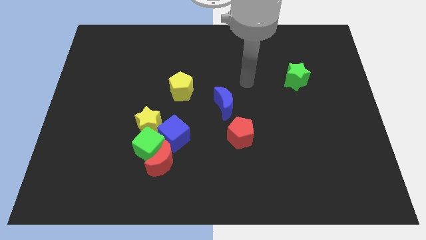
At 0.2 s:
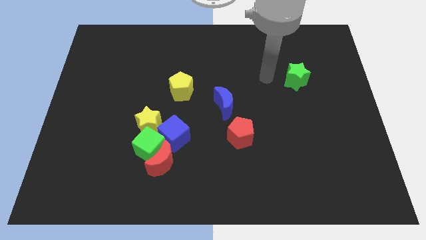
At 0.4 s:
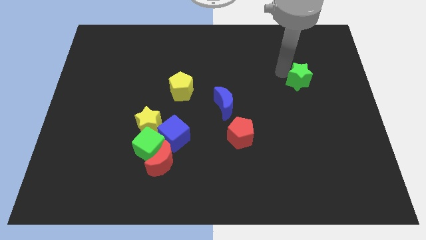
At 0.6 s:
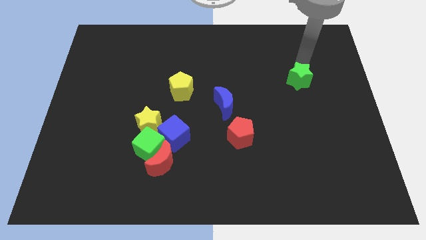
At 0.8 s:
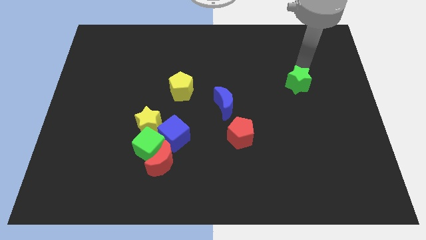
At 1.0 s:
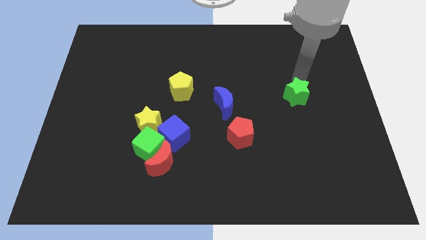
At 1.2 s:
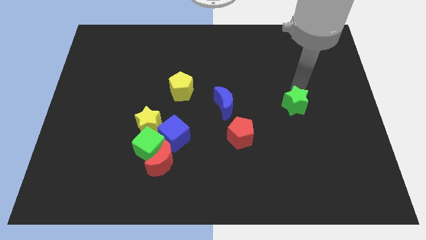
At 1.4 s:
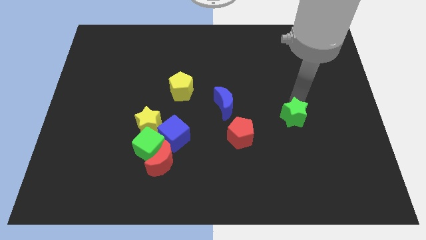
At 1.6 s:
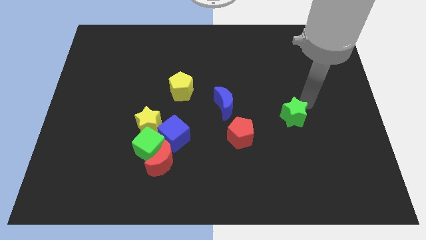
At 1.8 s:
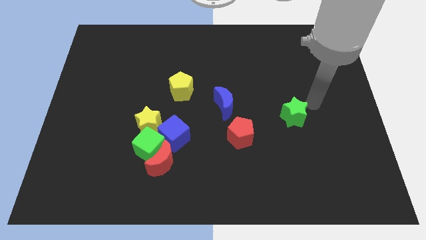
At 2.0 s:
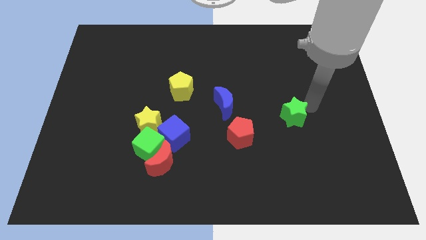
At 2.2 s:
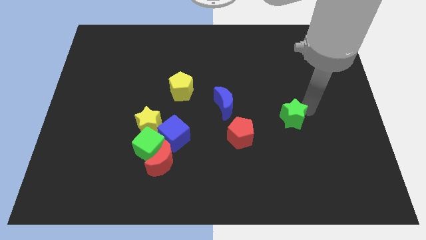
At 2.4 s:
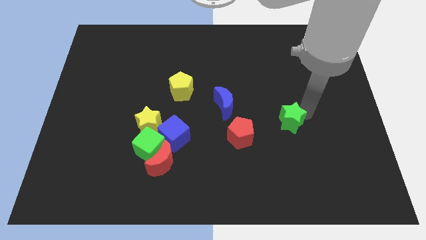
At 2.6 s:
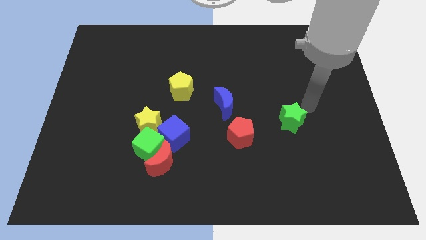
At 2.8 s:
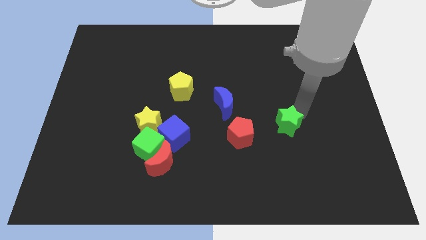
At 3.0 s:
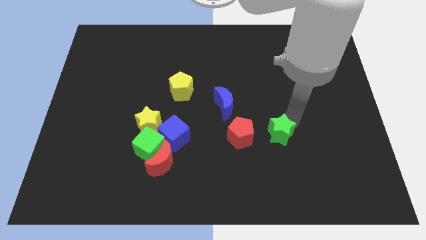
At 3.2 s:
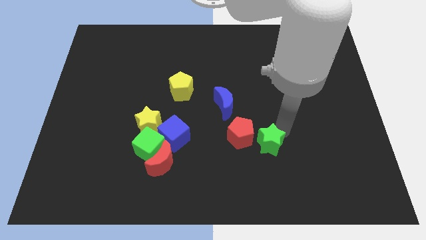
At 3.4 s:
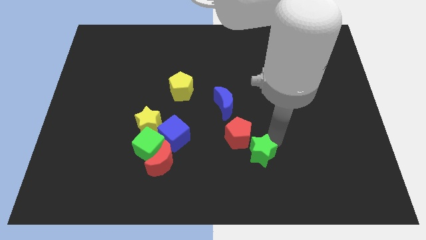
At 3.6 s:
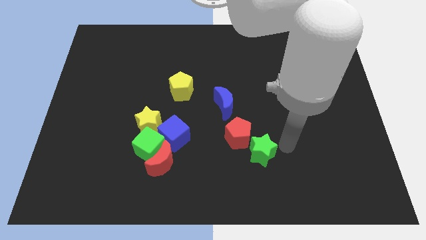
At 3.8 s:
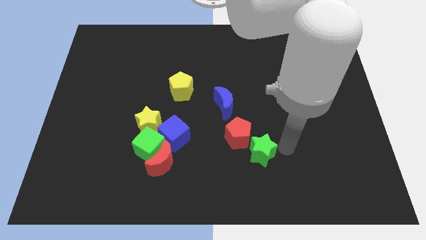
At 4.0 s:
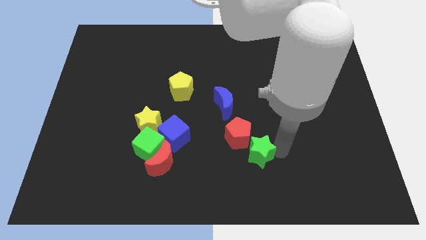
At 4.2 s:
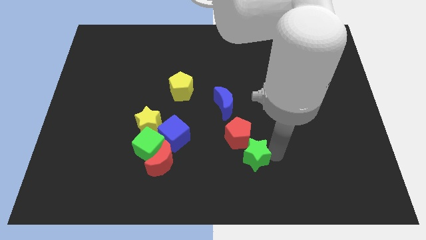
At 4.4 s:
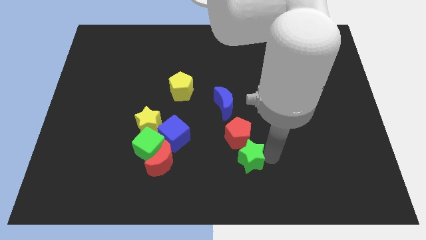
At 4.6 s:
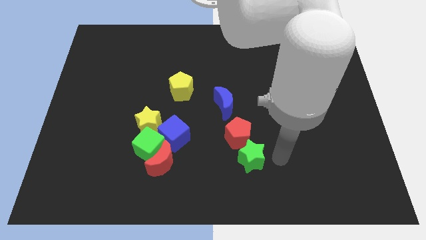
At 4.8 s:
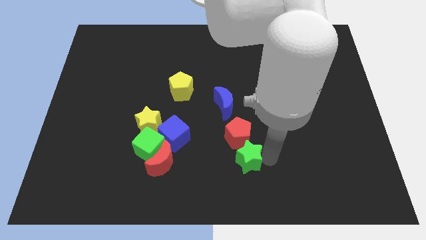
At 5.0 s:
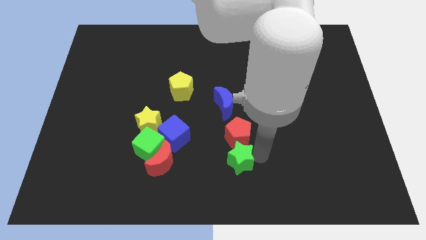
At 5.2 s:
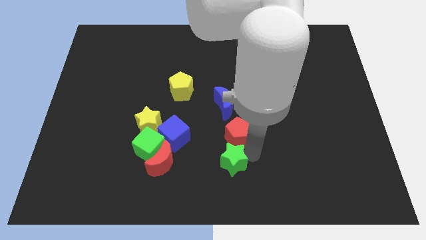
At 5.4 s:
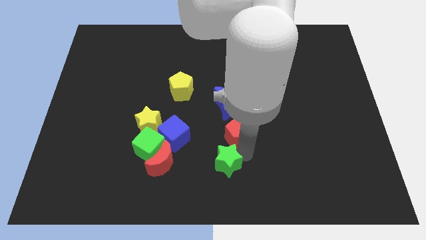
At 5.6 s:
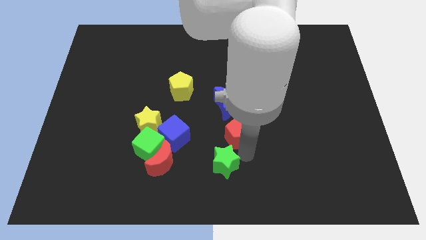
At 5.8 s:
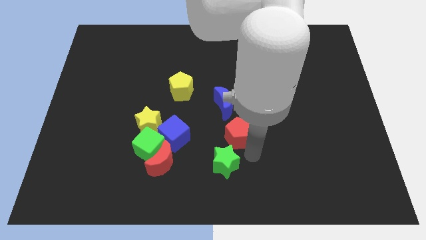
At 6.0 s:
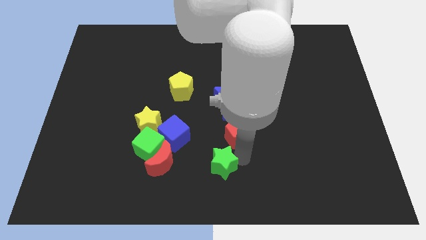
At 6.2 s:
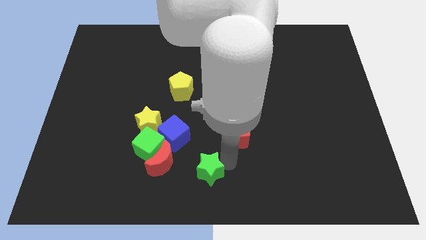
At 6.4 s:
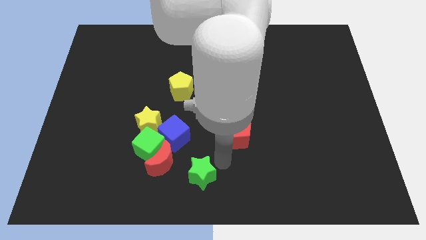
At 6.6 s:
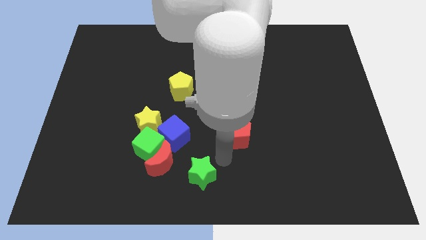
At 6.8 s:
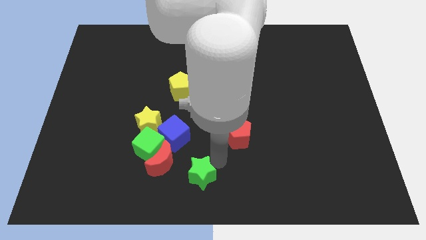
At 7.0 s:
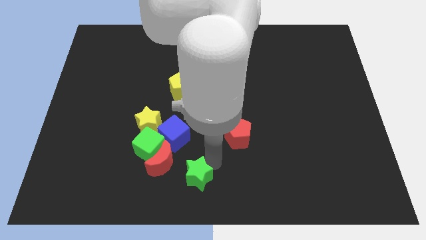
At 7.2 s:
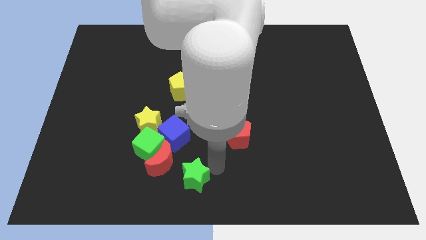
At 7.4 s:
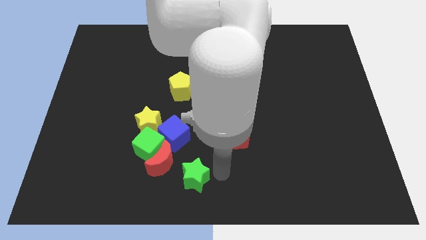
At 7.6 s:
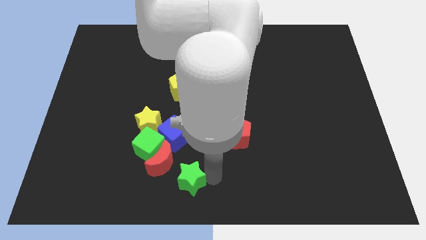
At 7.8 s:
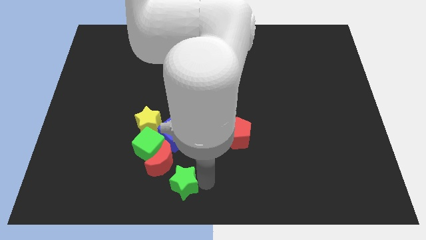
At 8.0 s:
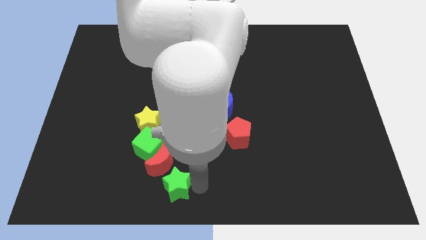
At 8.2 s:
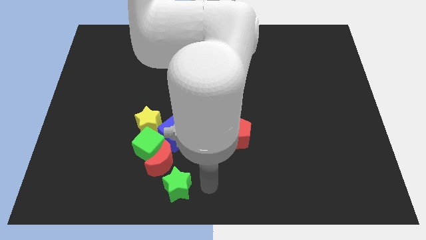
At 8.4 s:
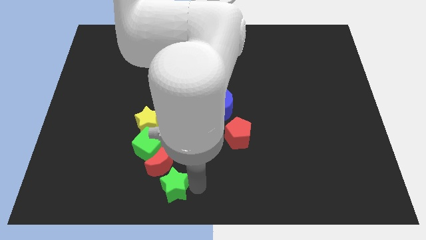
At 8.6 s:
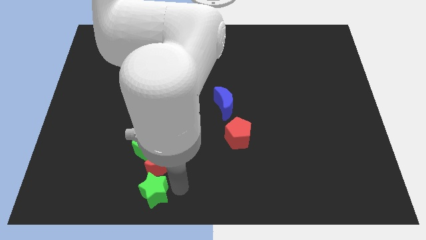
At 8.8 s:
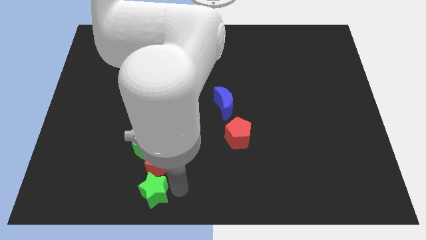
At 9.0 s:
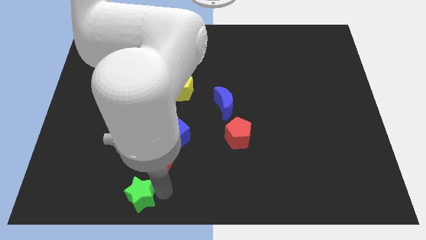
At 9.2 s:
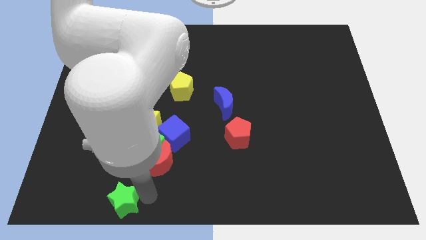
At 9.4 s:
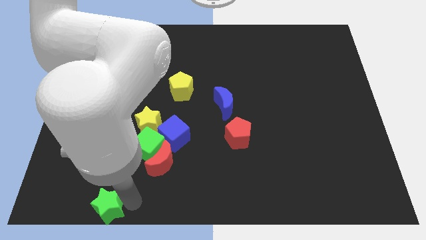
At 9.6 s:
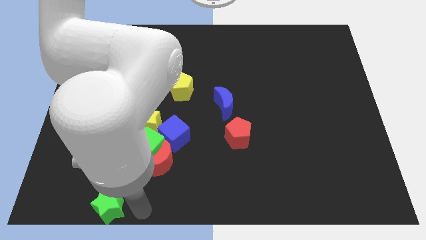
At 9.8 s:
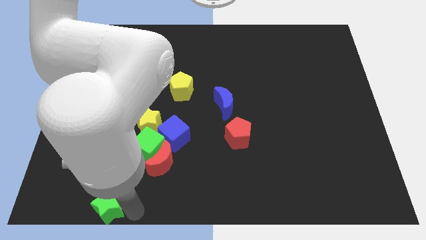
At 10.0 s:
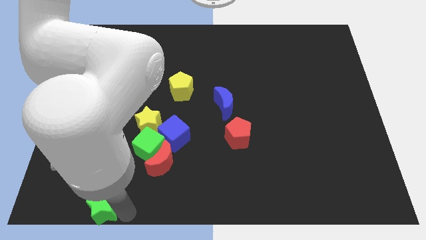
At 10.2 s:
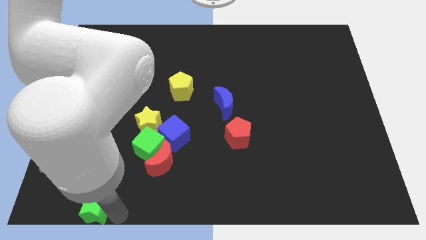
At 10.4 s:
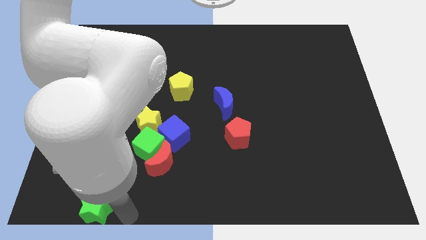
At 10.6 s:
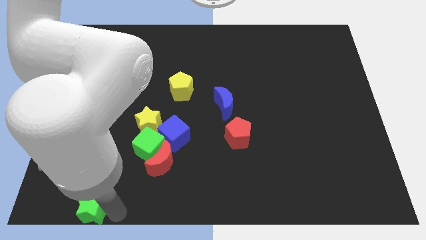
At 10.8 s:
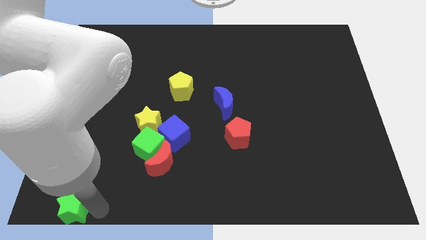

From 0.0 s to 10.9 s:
push the green star to the bottom left

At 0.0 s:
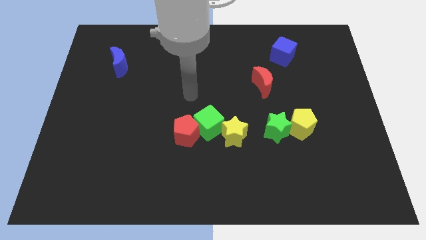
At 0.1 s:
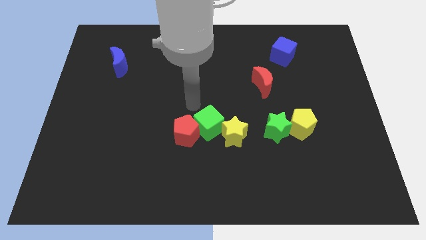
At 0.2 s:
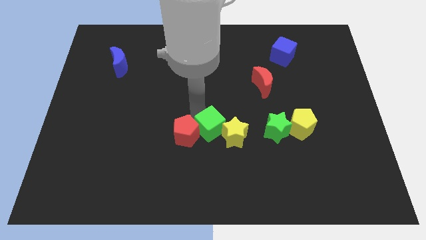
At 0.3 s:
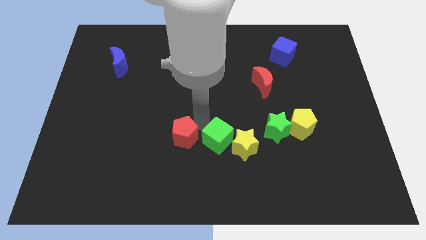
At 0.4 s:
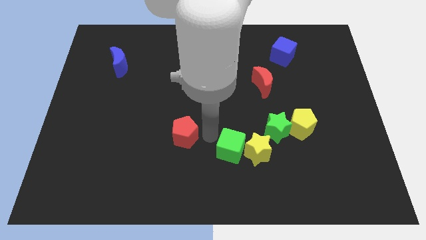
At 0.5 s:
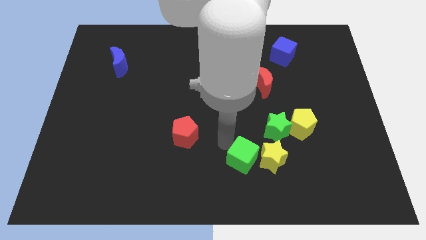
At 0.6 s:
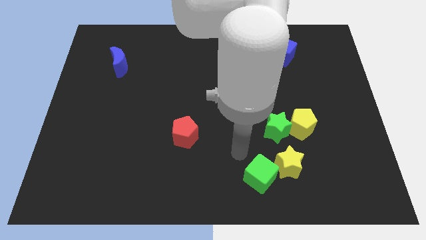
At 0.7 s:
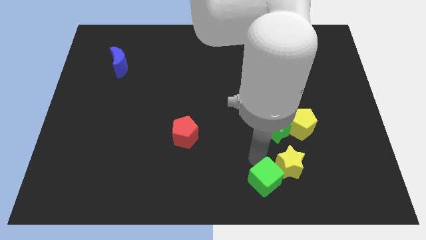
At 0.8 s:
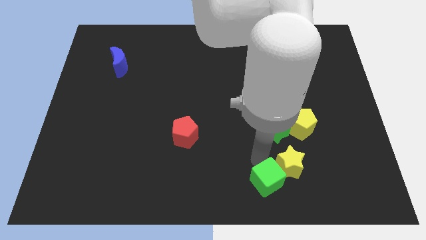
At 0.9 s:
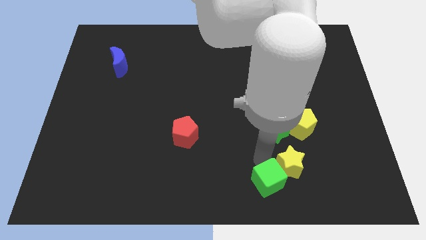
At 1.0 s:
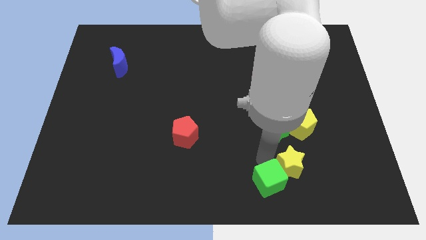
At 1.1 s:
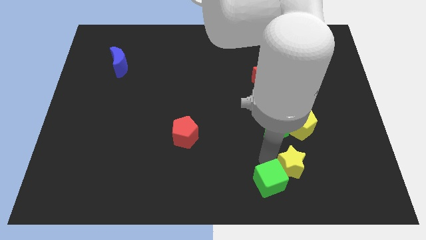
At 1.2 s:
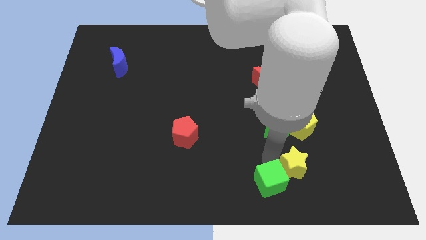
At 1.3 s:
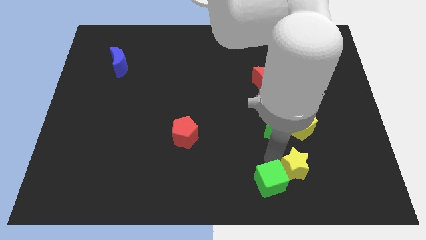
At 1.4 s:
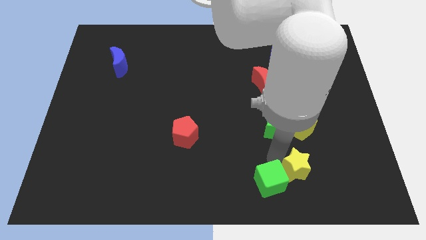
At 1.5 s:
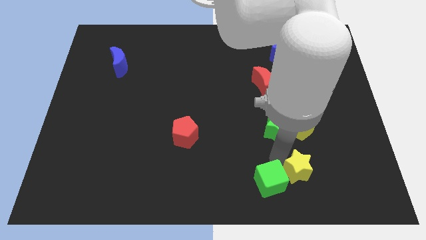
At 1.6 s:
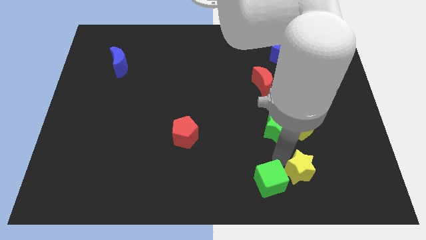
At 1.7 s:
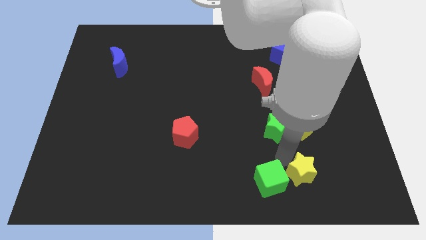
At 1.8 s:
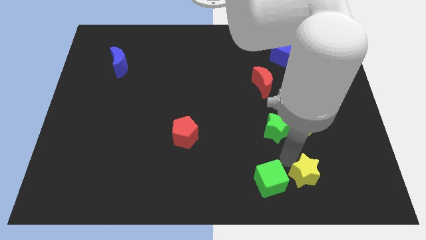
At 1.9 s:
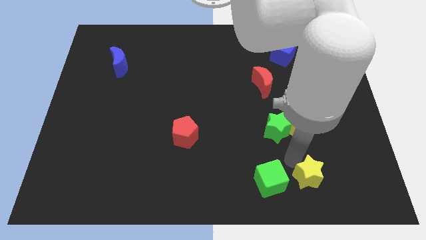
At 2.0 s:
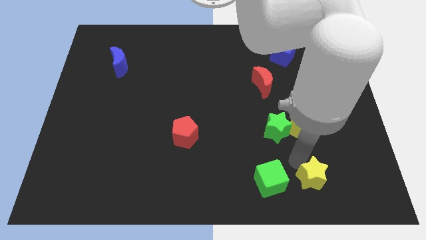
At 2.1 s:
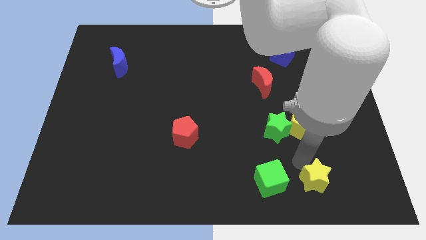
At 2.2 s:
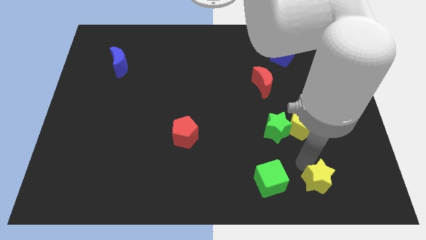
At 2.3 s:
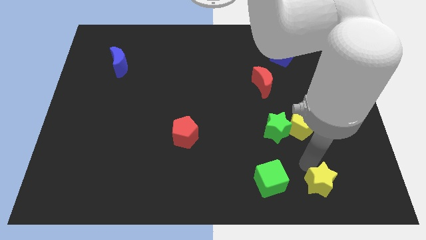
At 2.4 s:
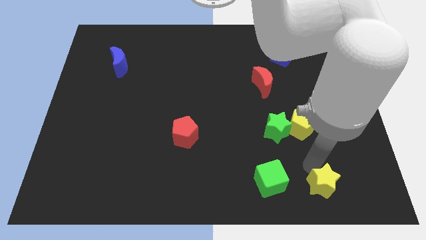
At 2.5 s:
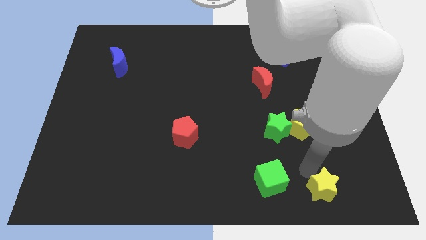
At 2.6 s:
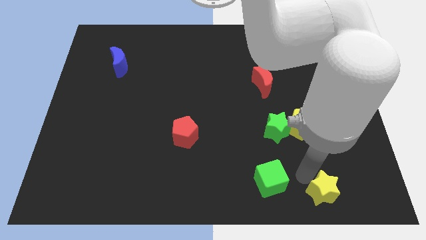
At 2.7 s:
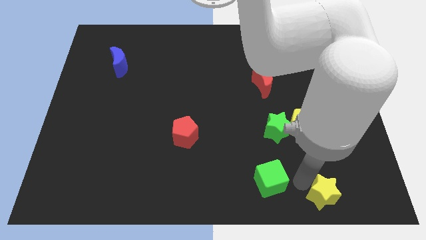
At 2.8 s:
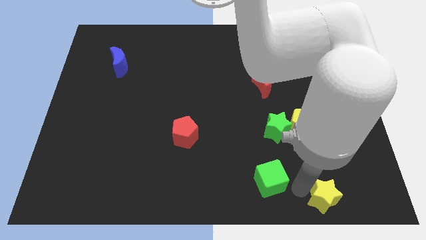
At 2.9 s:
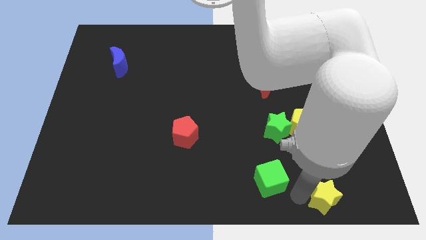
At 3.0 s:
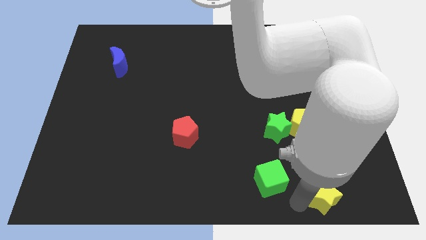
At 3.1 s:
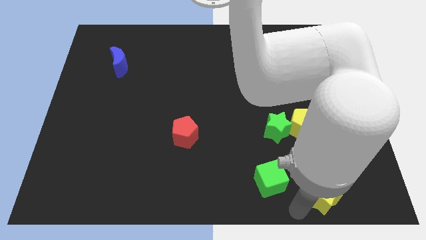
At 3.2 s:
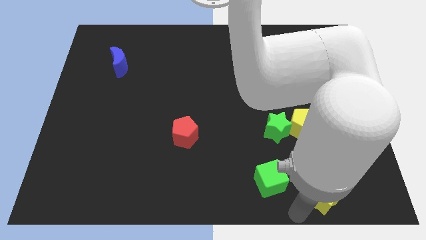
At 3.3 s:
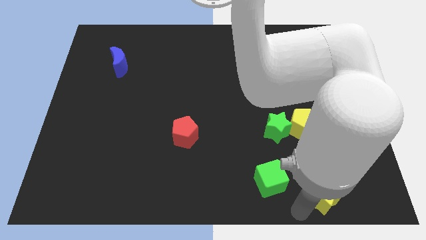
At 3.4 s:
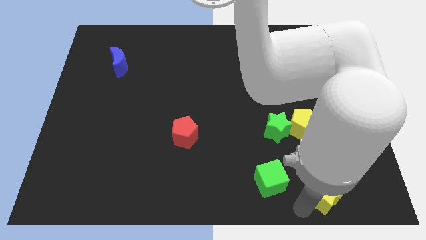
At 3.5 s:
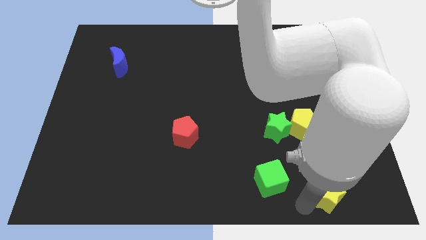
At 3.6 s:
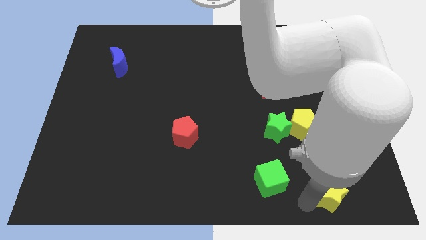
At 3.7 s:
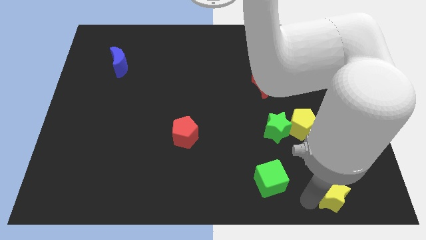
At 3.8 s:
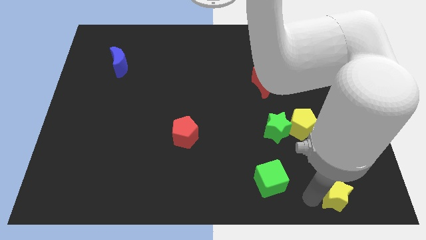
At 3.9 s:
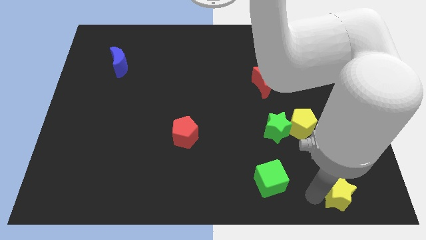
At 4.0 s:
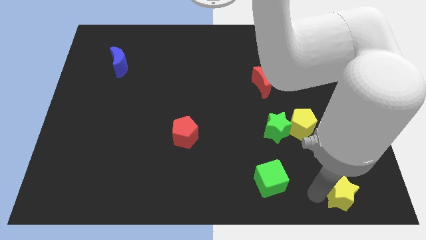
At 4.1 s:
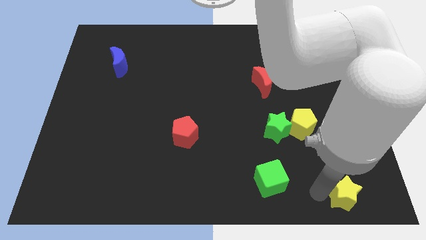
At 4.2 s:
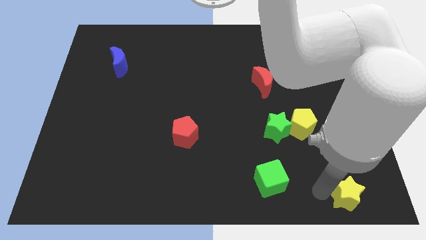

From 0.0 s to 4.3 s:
put the yellow star to the bottom right of the board
